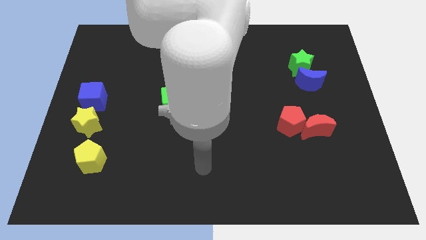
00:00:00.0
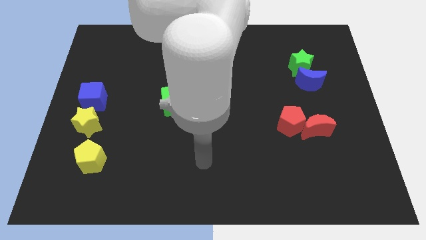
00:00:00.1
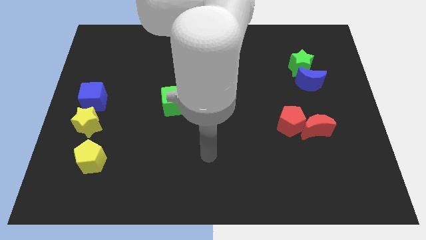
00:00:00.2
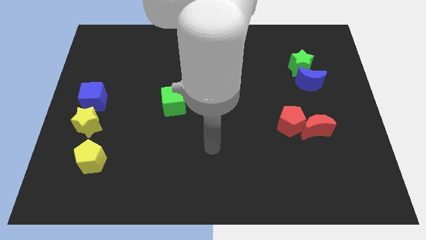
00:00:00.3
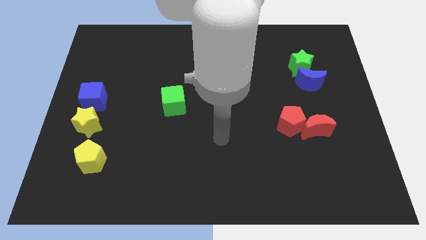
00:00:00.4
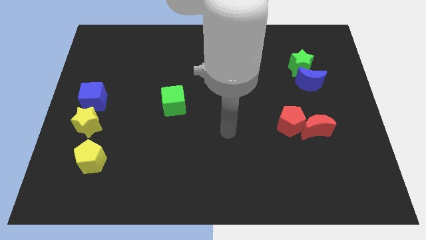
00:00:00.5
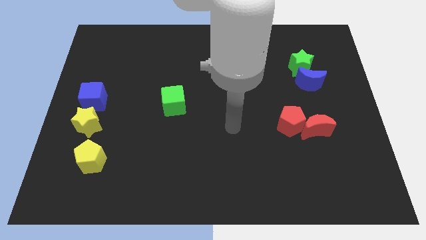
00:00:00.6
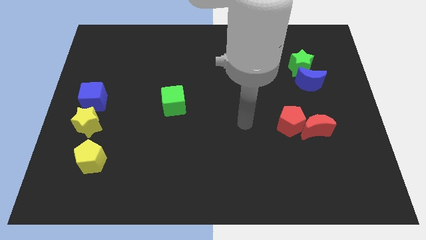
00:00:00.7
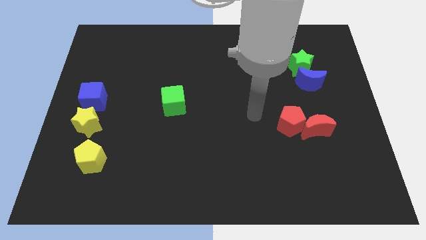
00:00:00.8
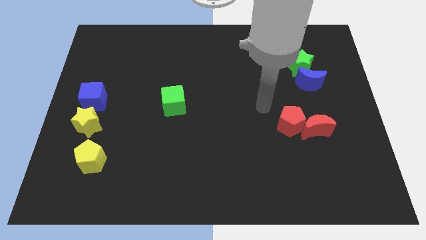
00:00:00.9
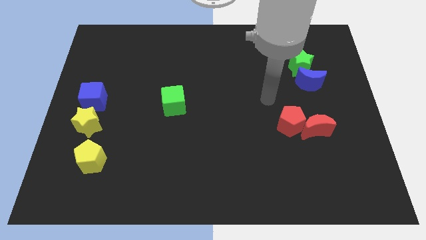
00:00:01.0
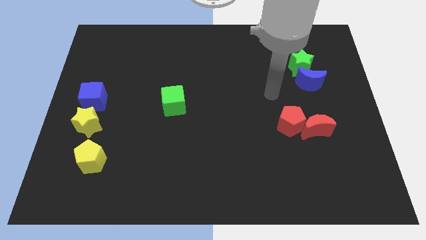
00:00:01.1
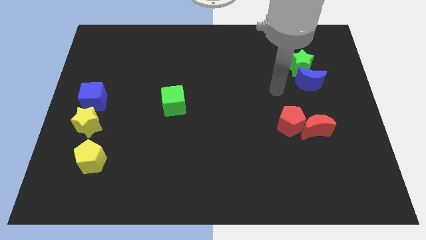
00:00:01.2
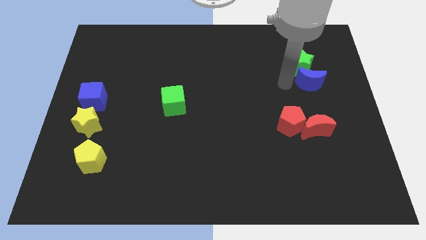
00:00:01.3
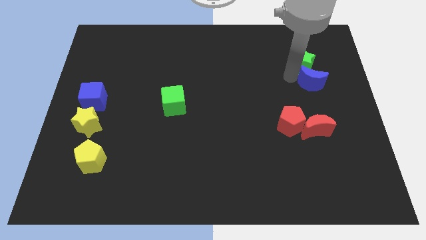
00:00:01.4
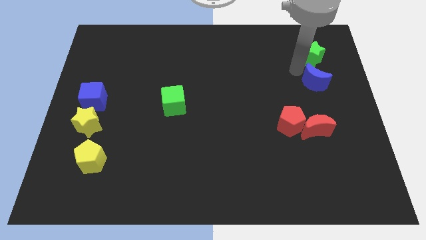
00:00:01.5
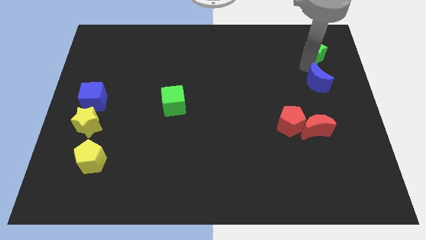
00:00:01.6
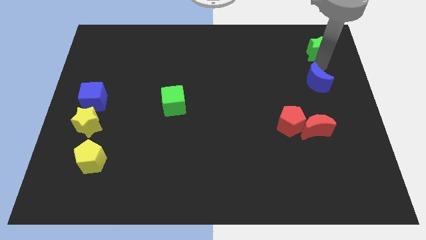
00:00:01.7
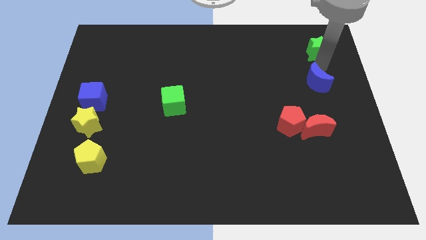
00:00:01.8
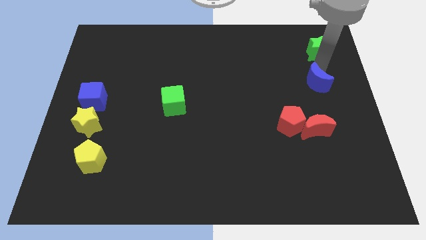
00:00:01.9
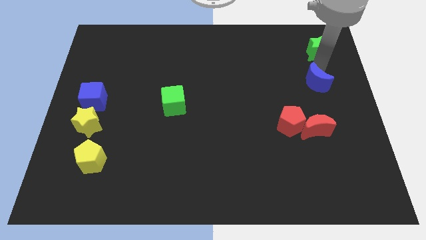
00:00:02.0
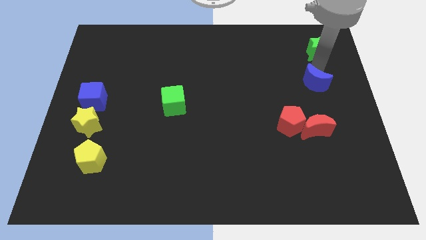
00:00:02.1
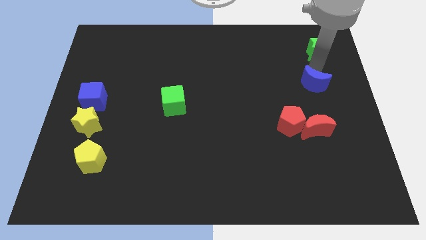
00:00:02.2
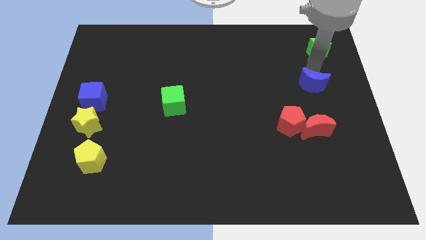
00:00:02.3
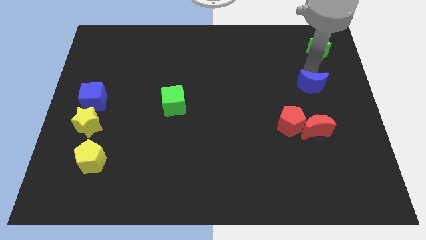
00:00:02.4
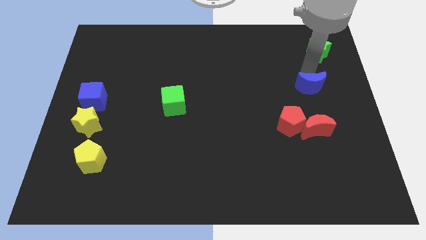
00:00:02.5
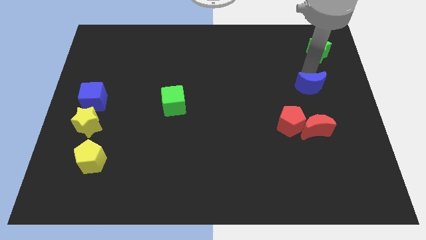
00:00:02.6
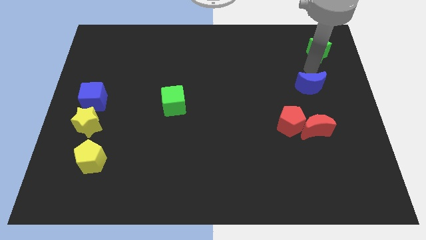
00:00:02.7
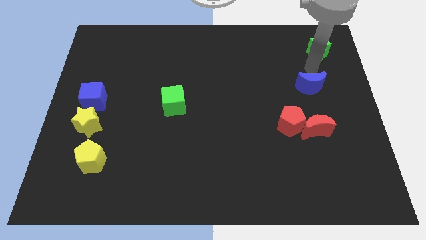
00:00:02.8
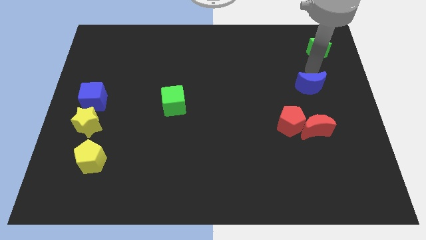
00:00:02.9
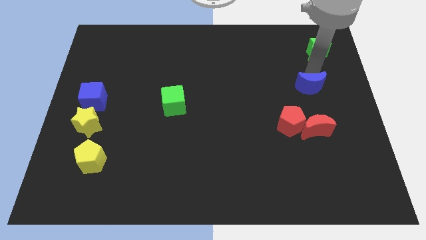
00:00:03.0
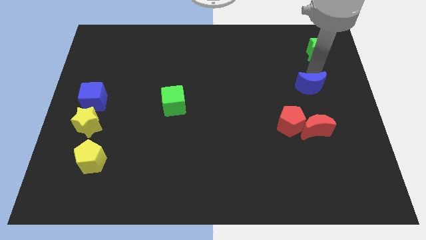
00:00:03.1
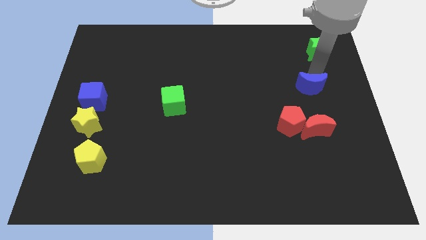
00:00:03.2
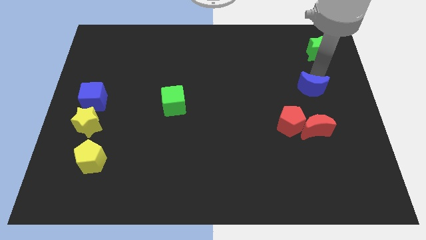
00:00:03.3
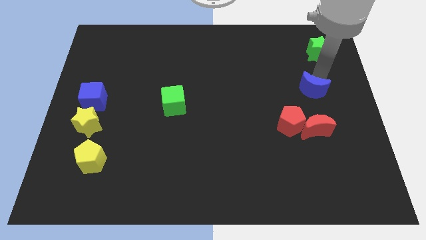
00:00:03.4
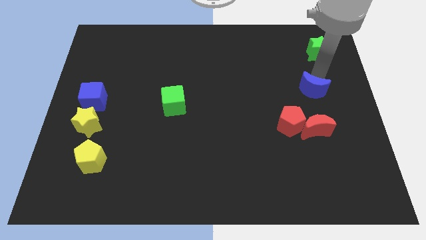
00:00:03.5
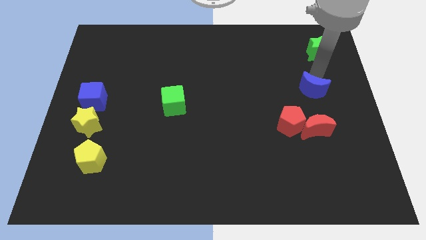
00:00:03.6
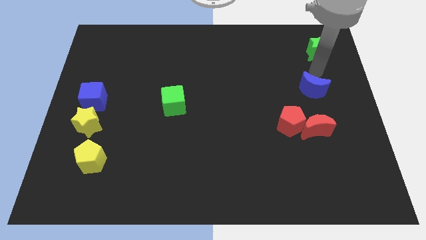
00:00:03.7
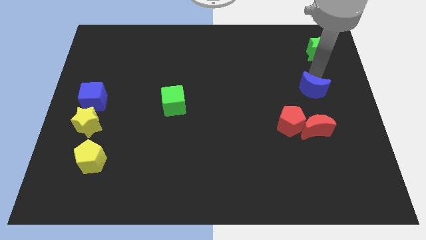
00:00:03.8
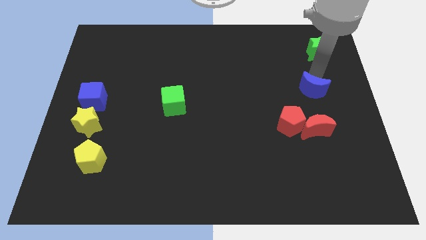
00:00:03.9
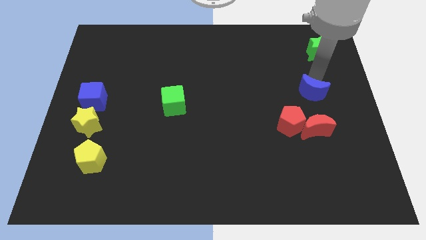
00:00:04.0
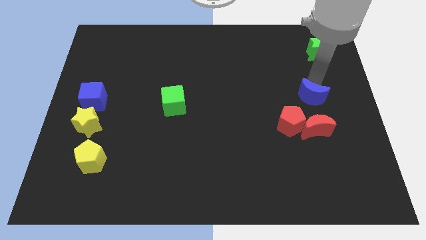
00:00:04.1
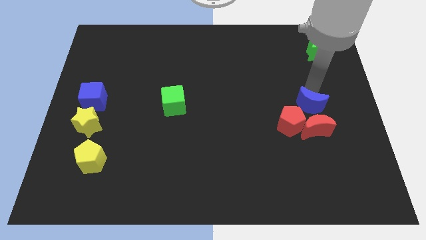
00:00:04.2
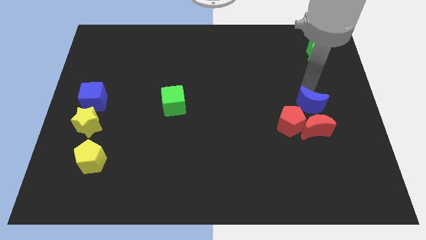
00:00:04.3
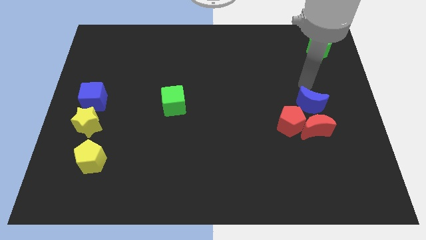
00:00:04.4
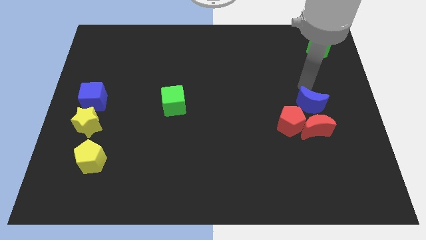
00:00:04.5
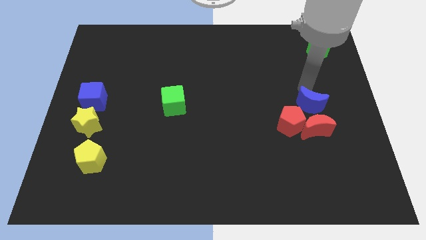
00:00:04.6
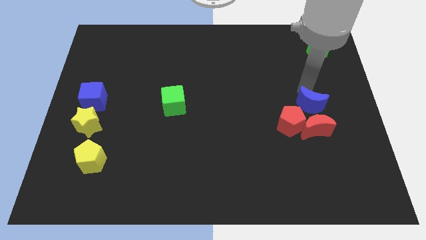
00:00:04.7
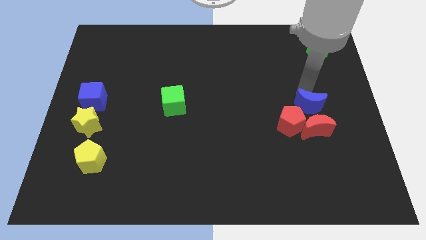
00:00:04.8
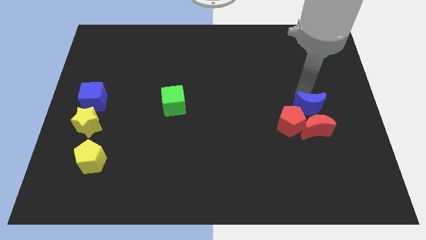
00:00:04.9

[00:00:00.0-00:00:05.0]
push the blue moon towards the red moon

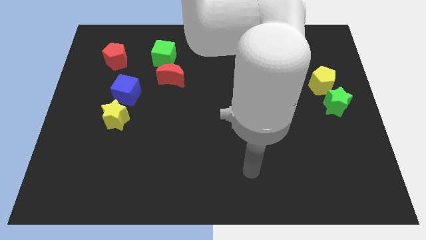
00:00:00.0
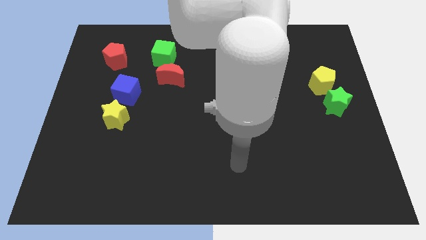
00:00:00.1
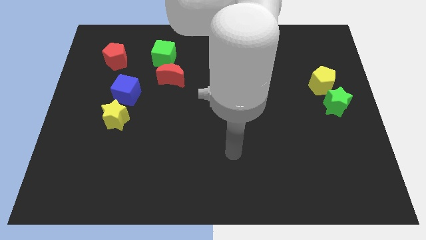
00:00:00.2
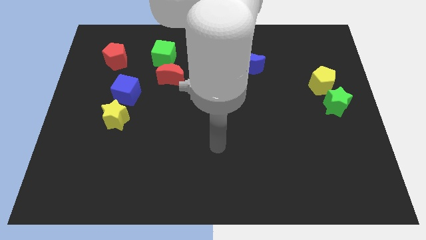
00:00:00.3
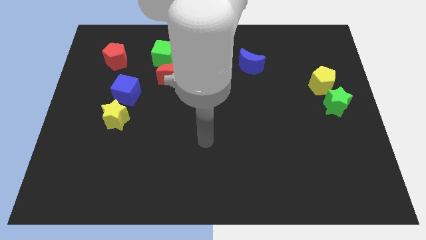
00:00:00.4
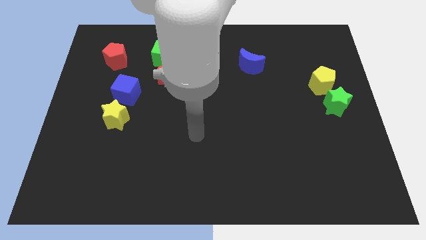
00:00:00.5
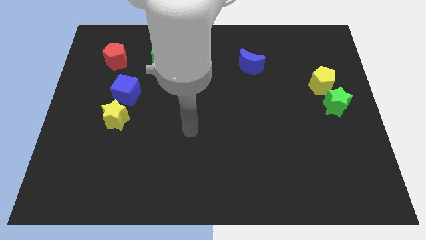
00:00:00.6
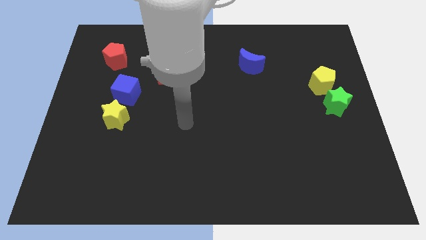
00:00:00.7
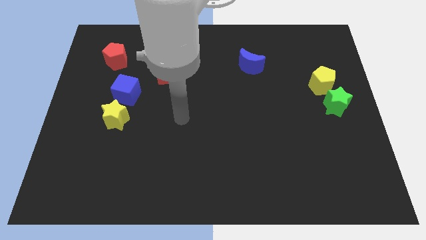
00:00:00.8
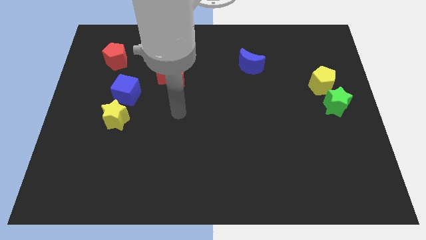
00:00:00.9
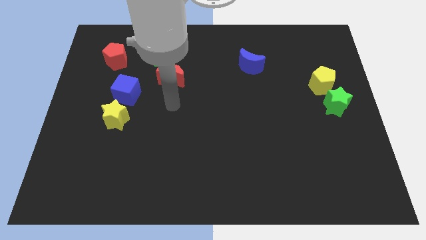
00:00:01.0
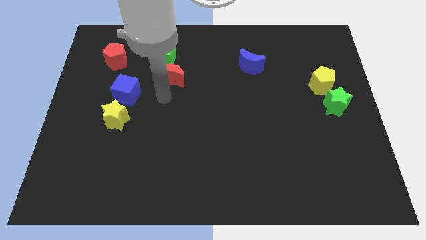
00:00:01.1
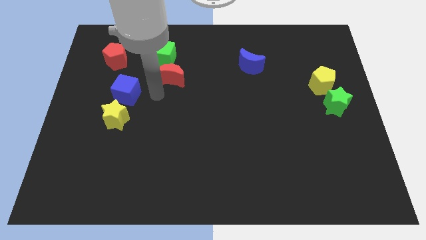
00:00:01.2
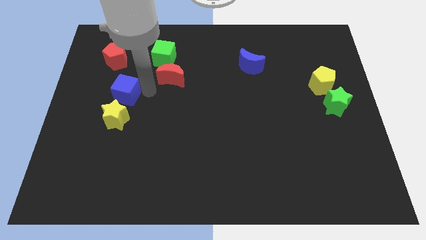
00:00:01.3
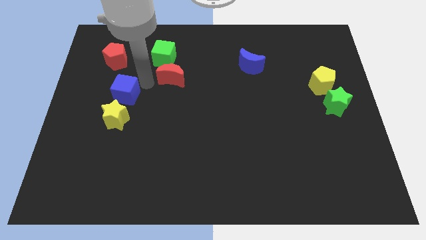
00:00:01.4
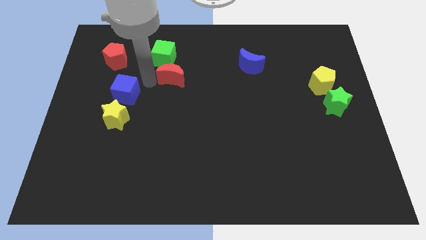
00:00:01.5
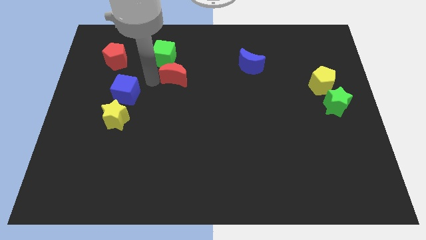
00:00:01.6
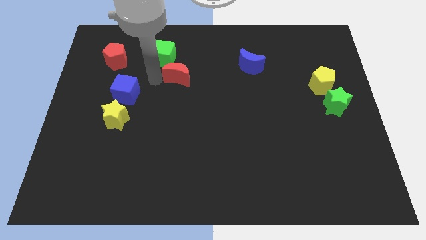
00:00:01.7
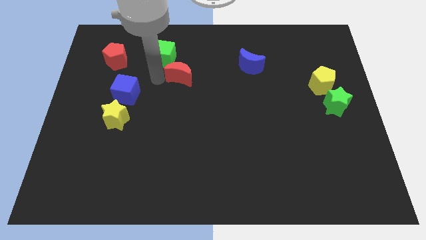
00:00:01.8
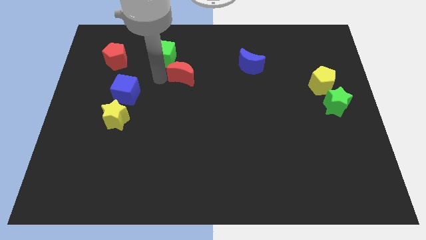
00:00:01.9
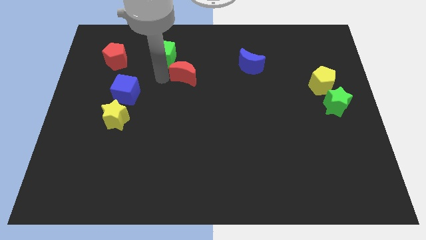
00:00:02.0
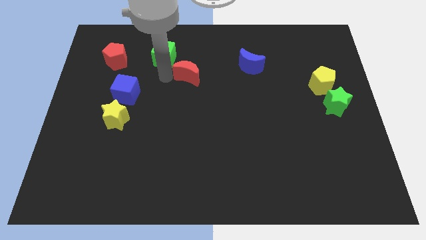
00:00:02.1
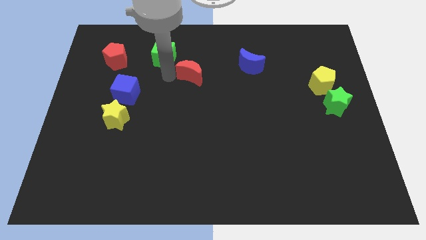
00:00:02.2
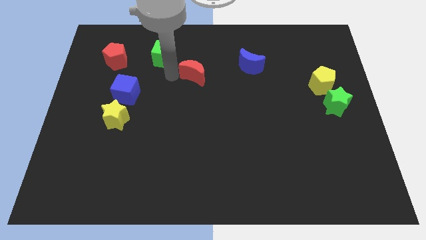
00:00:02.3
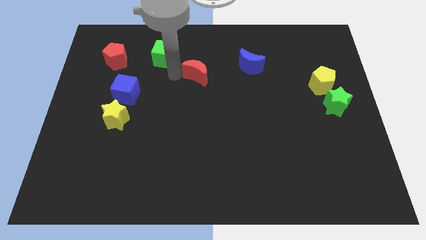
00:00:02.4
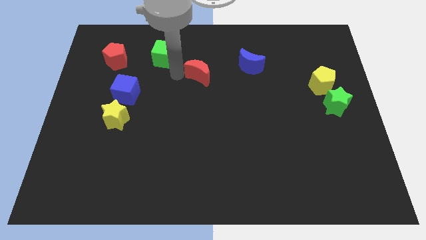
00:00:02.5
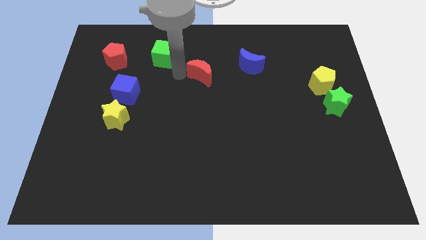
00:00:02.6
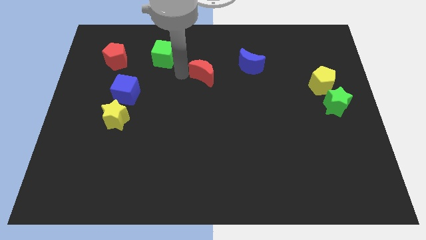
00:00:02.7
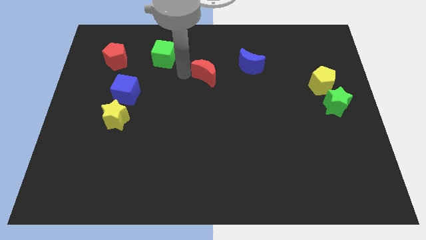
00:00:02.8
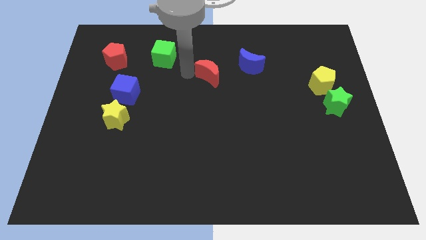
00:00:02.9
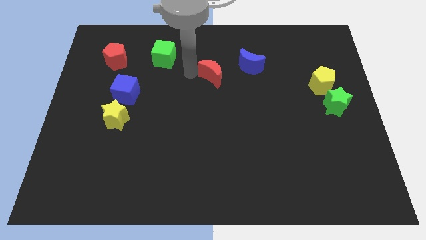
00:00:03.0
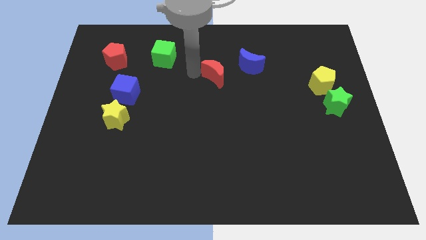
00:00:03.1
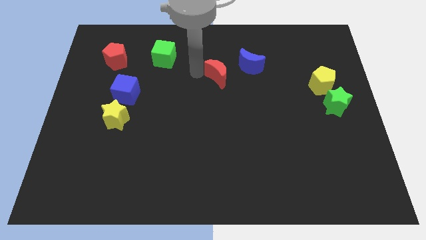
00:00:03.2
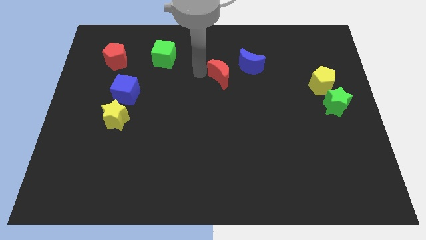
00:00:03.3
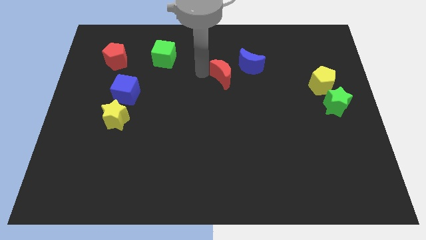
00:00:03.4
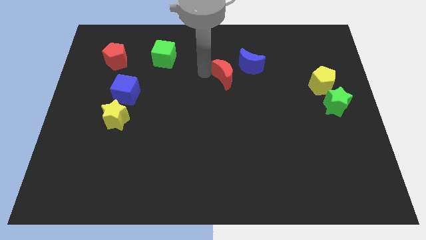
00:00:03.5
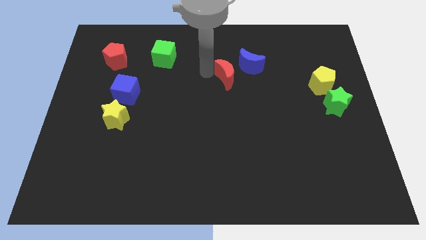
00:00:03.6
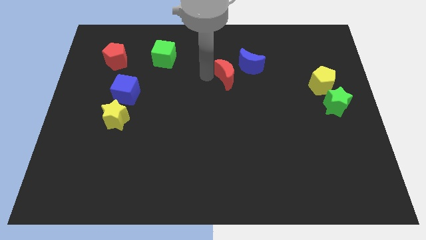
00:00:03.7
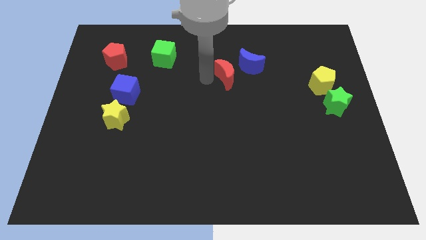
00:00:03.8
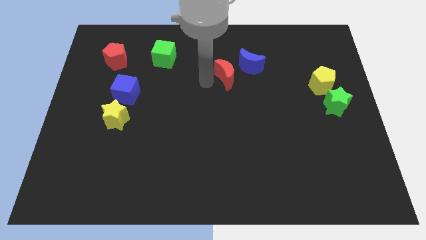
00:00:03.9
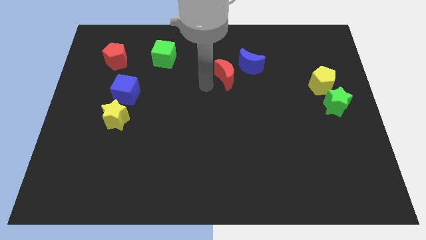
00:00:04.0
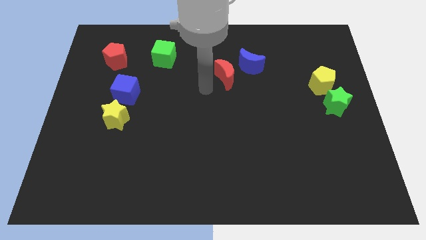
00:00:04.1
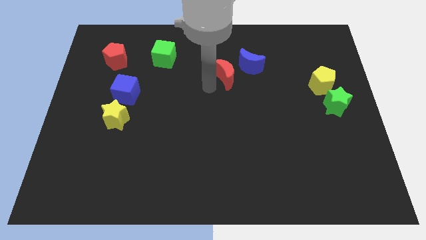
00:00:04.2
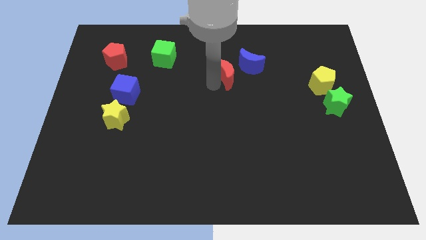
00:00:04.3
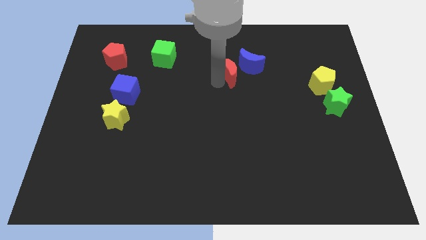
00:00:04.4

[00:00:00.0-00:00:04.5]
move the red moon next to the blue moon
